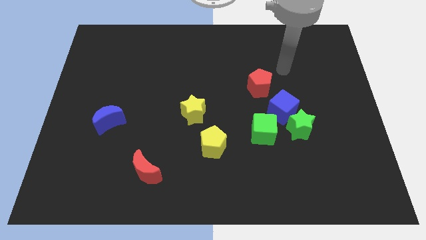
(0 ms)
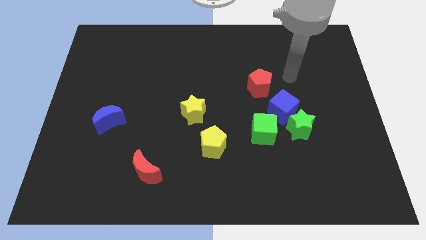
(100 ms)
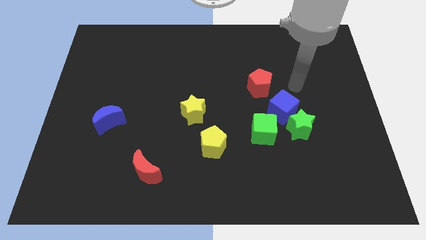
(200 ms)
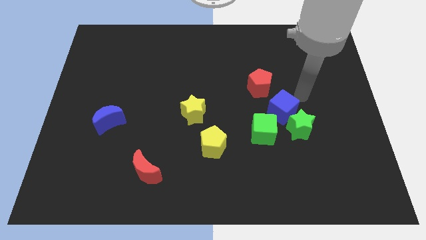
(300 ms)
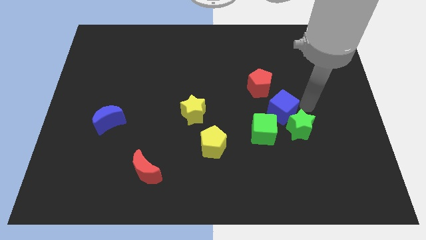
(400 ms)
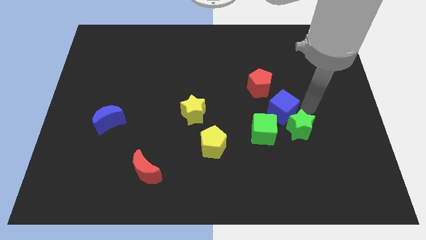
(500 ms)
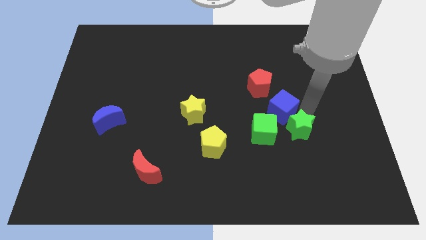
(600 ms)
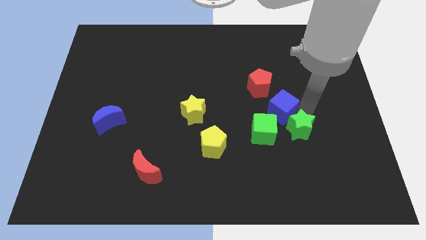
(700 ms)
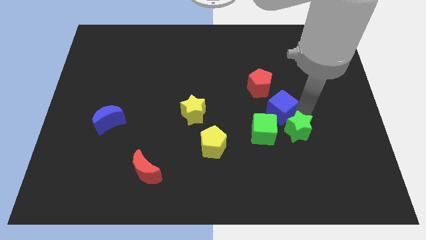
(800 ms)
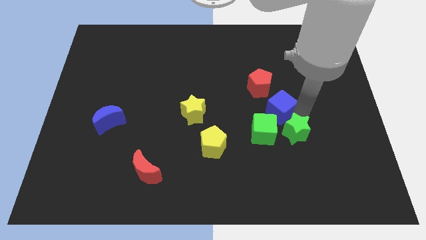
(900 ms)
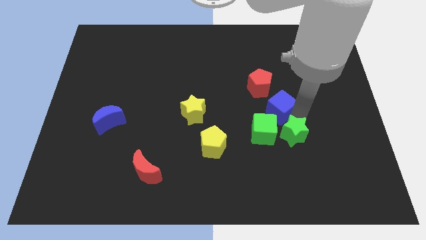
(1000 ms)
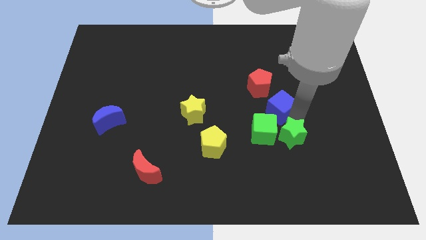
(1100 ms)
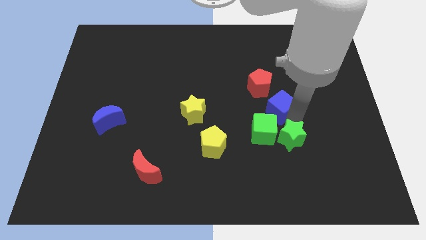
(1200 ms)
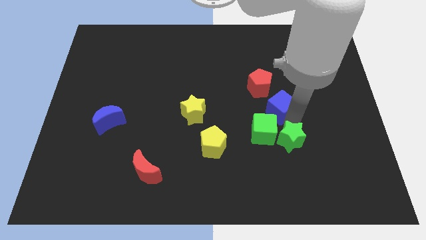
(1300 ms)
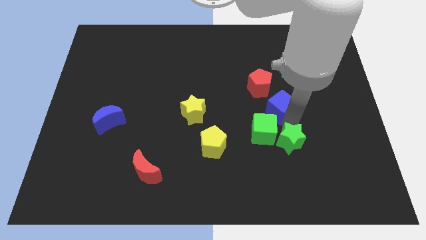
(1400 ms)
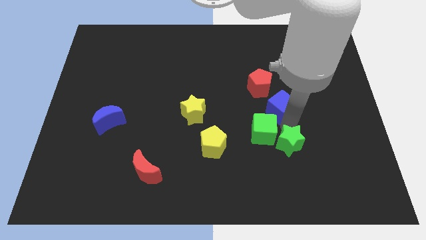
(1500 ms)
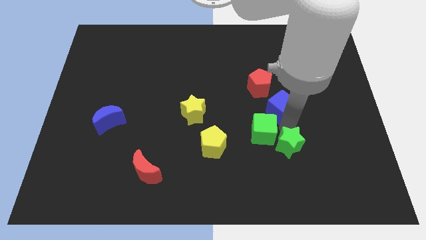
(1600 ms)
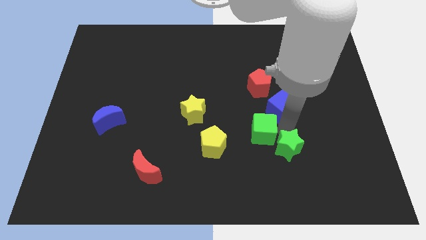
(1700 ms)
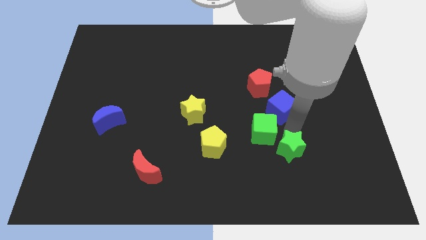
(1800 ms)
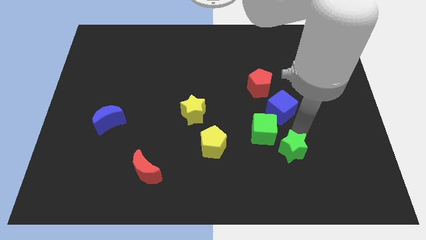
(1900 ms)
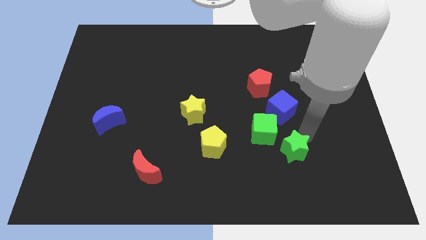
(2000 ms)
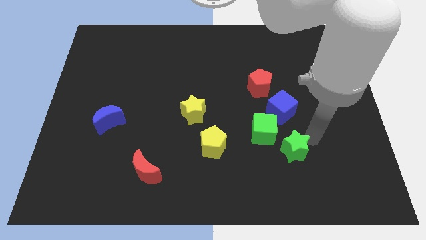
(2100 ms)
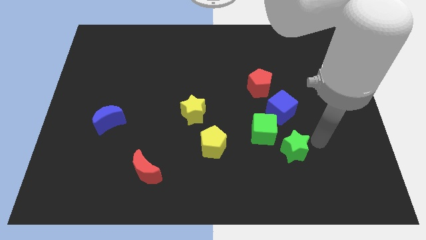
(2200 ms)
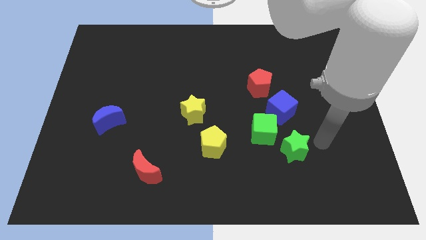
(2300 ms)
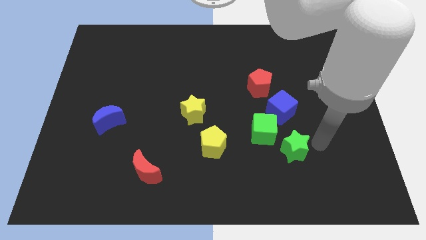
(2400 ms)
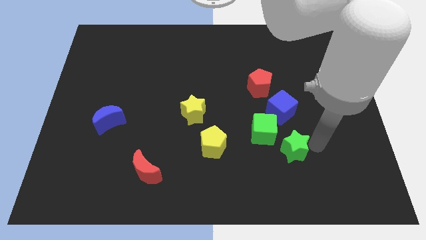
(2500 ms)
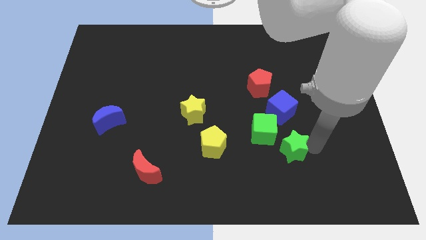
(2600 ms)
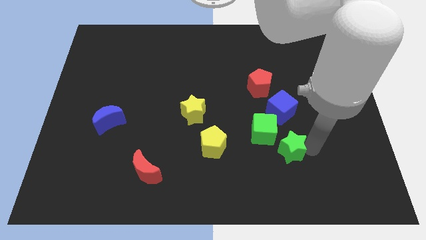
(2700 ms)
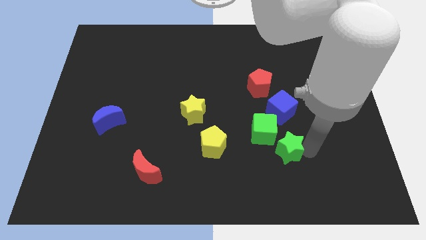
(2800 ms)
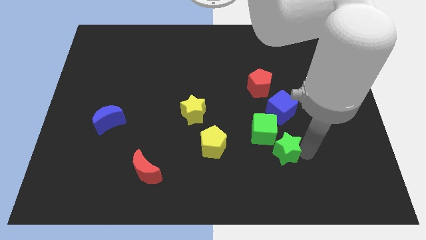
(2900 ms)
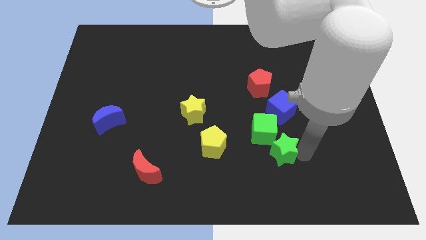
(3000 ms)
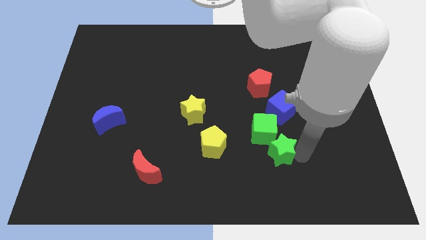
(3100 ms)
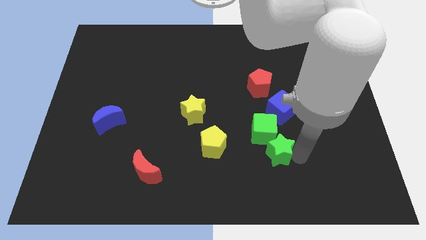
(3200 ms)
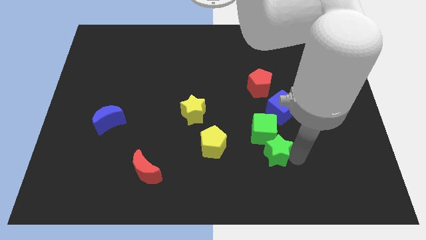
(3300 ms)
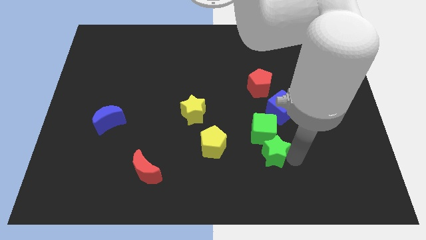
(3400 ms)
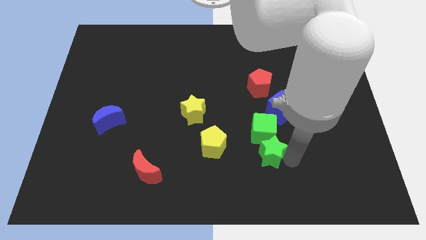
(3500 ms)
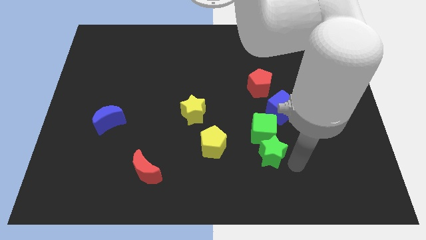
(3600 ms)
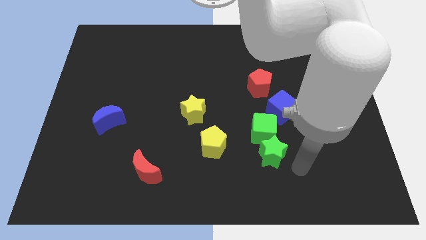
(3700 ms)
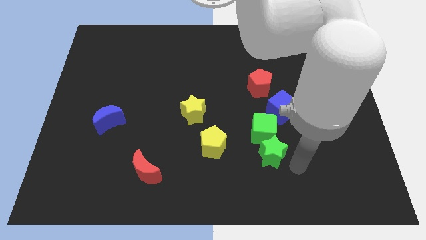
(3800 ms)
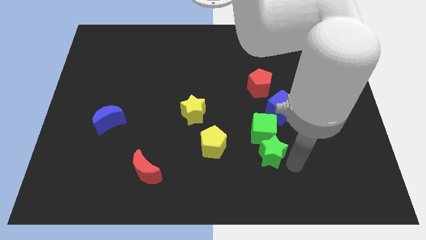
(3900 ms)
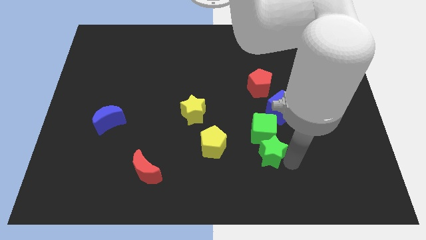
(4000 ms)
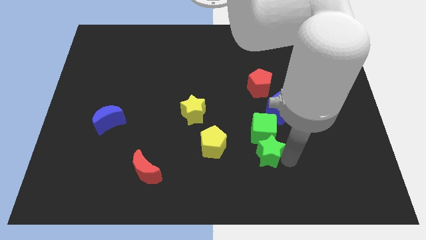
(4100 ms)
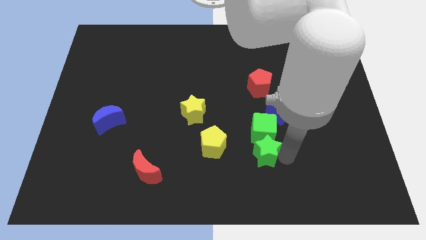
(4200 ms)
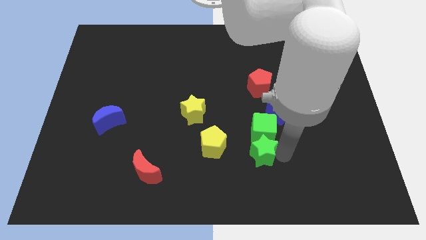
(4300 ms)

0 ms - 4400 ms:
push the green star slightly left

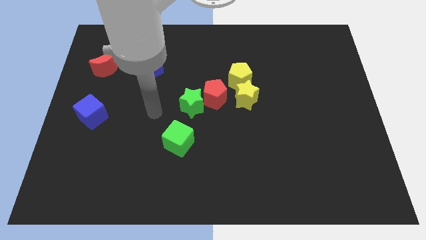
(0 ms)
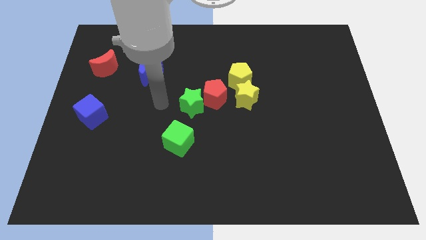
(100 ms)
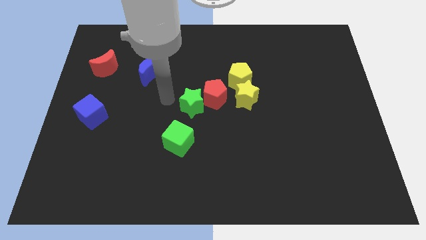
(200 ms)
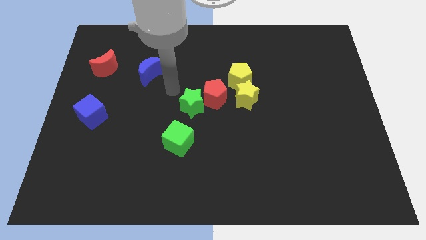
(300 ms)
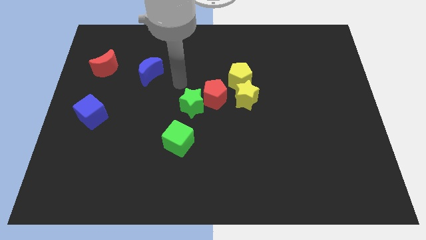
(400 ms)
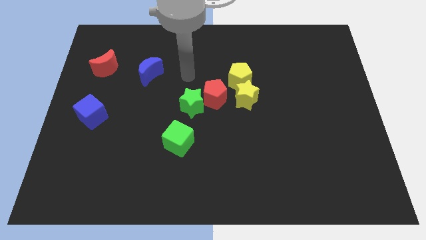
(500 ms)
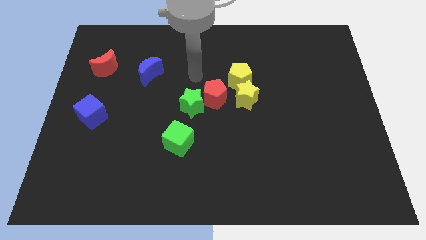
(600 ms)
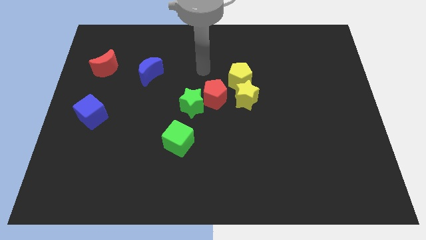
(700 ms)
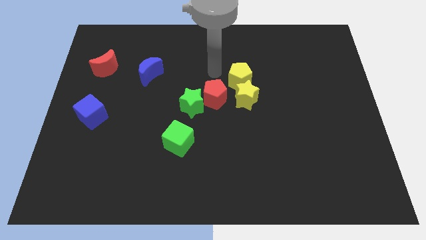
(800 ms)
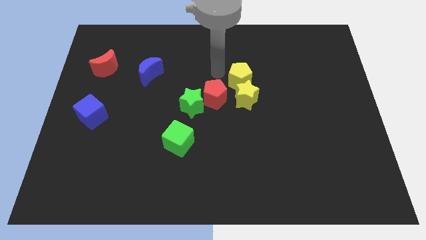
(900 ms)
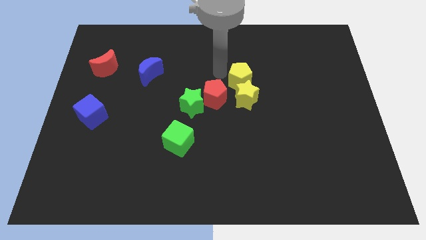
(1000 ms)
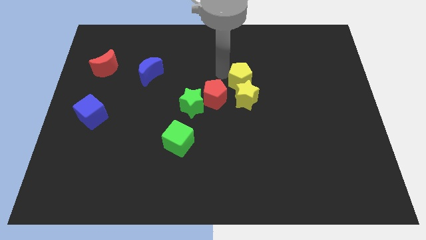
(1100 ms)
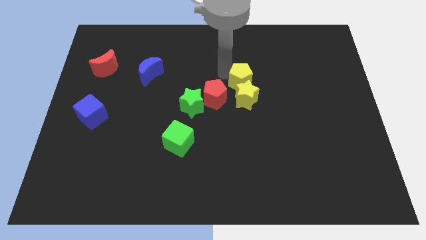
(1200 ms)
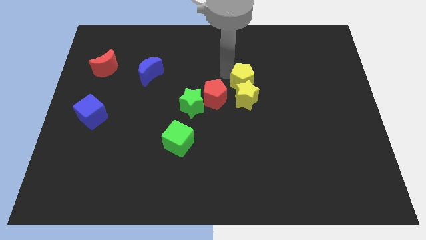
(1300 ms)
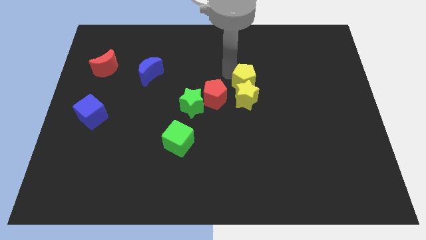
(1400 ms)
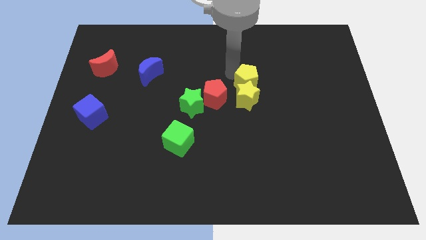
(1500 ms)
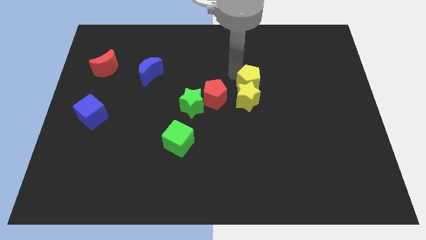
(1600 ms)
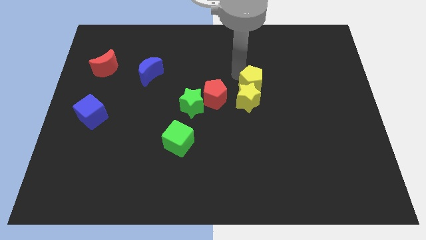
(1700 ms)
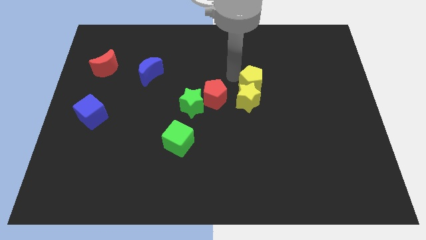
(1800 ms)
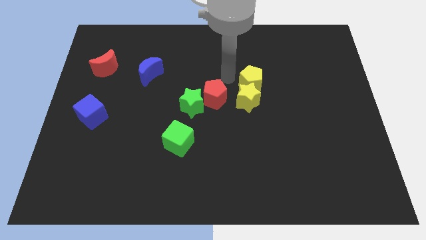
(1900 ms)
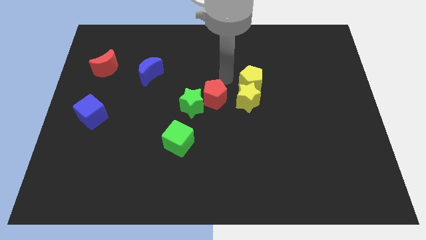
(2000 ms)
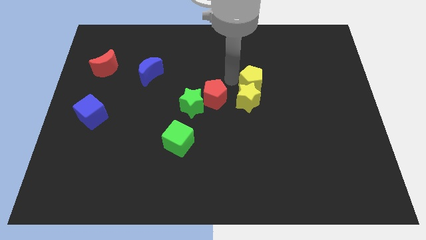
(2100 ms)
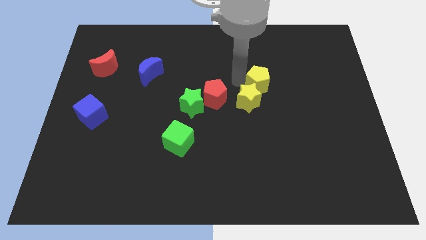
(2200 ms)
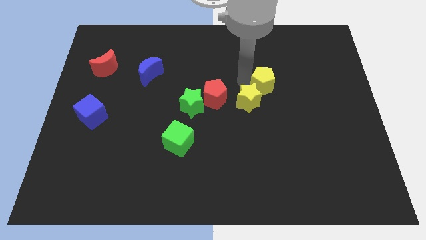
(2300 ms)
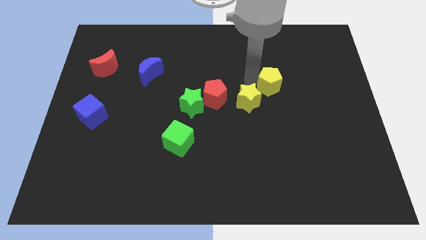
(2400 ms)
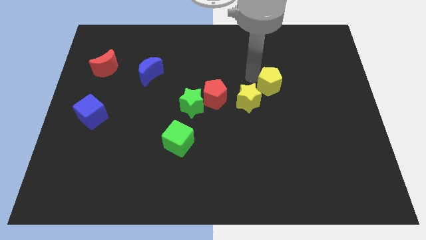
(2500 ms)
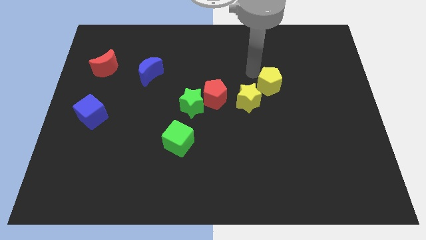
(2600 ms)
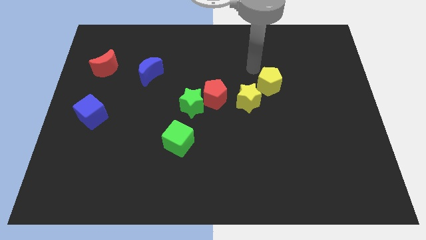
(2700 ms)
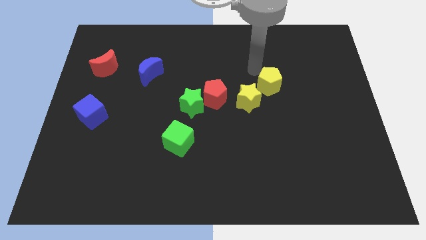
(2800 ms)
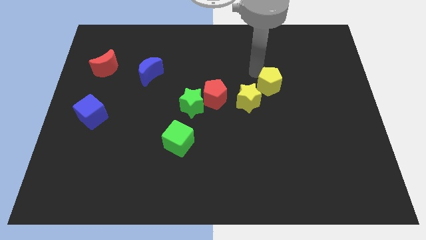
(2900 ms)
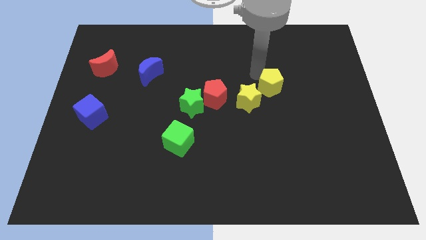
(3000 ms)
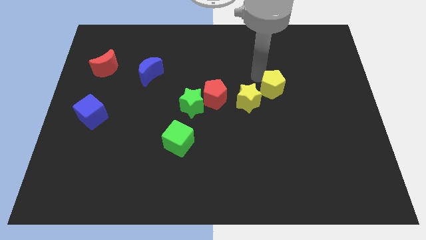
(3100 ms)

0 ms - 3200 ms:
slightly push the yellow pentagon down and then to the right
